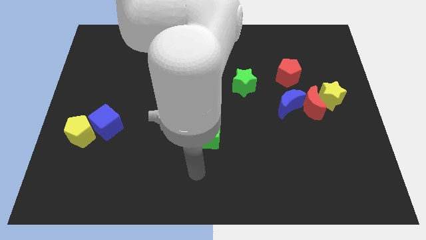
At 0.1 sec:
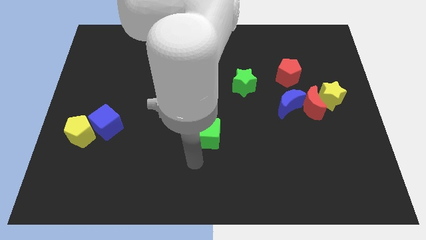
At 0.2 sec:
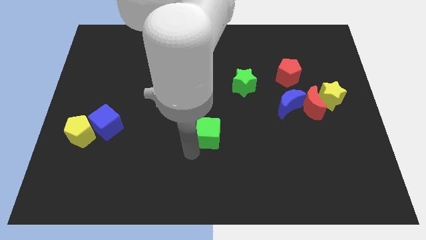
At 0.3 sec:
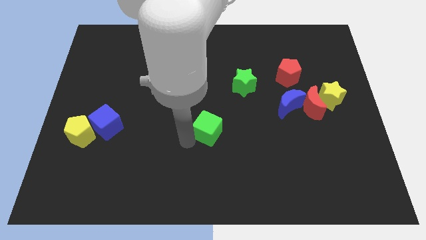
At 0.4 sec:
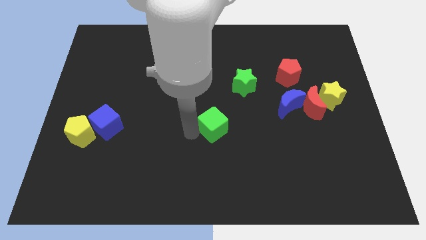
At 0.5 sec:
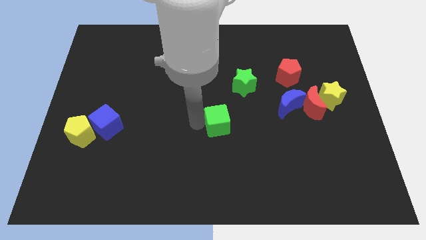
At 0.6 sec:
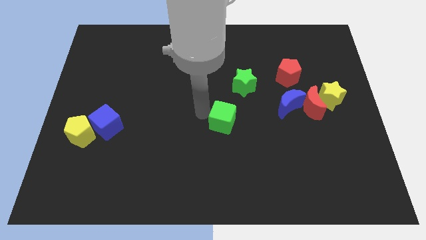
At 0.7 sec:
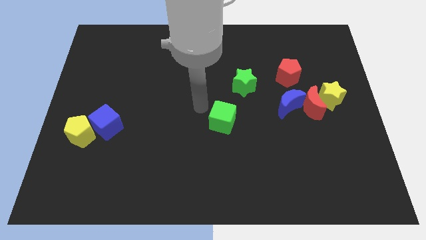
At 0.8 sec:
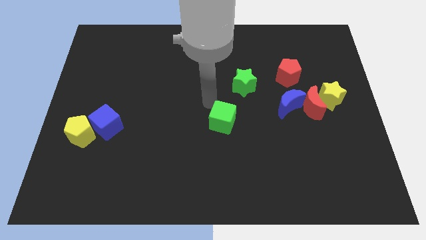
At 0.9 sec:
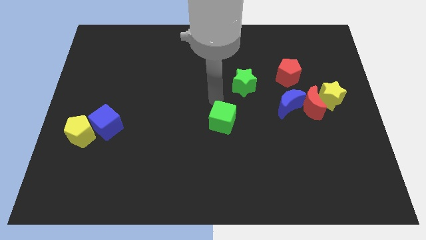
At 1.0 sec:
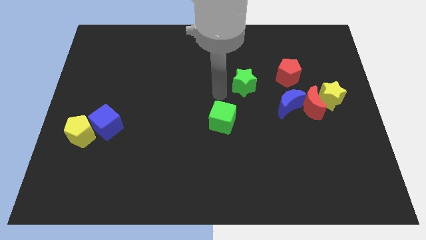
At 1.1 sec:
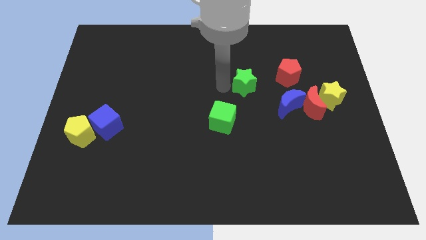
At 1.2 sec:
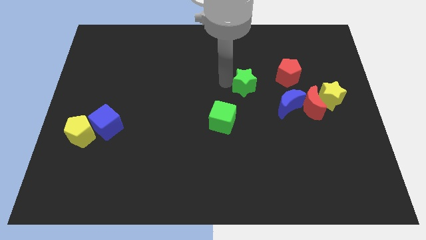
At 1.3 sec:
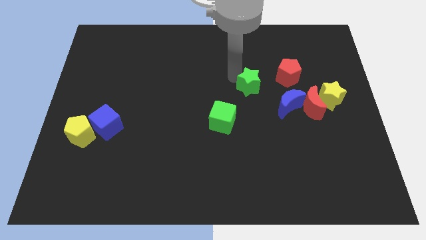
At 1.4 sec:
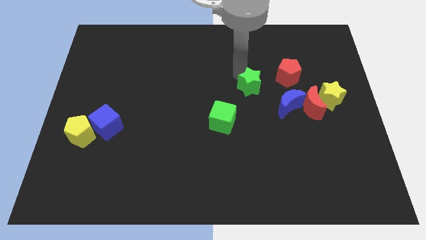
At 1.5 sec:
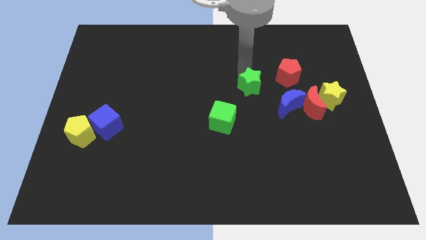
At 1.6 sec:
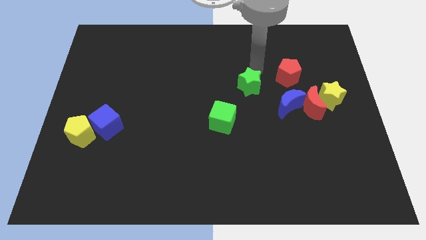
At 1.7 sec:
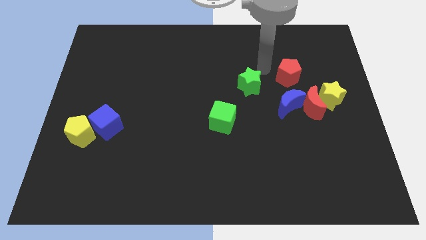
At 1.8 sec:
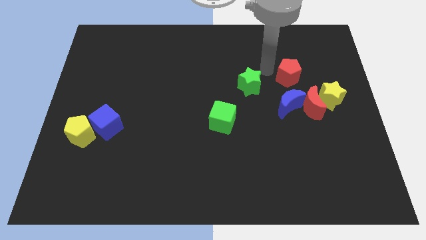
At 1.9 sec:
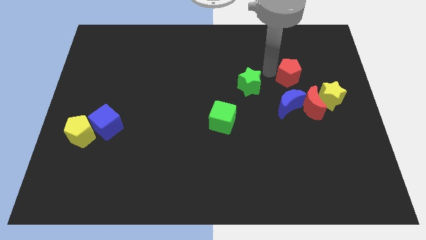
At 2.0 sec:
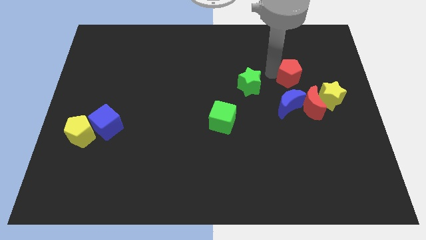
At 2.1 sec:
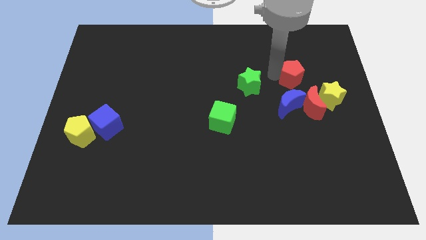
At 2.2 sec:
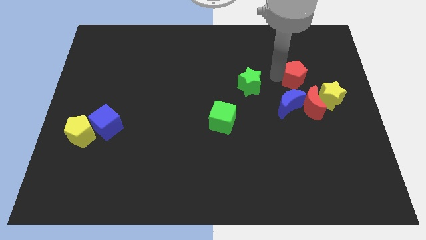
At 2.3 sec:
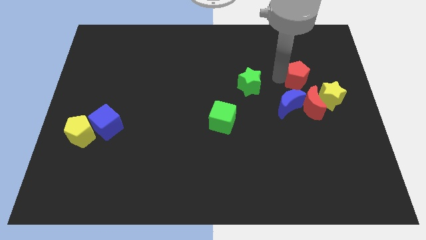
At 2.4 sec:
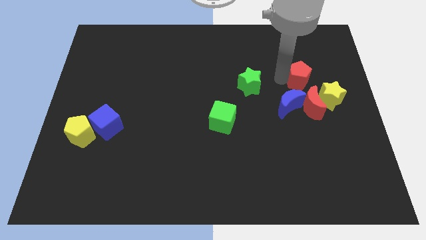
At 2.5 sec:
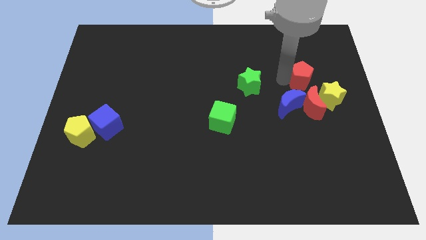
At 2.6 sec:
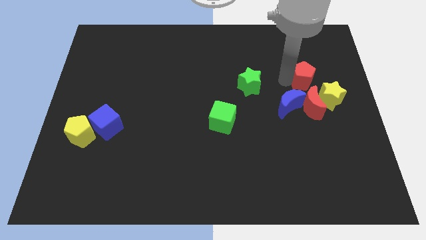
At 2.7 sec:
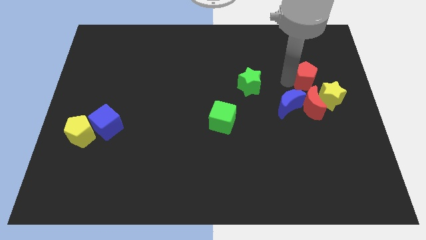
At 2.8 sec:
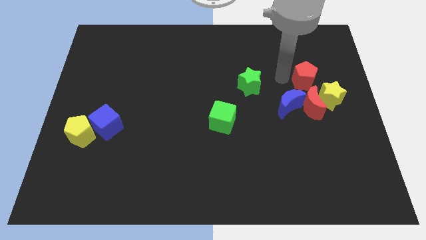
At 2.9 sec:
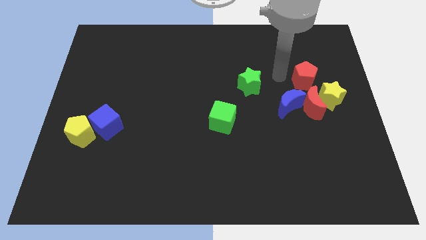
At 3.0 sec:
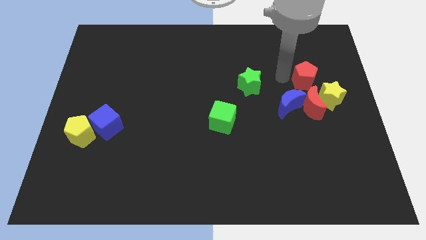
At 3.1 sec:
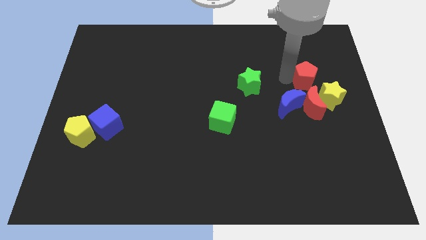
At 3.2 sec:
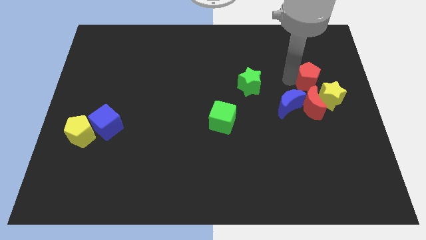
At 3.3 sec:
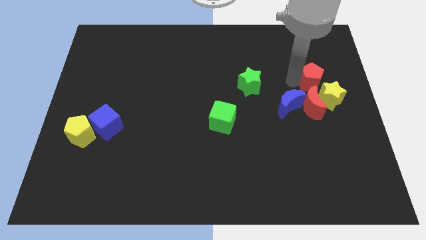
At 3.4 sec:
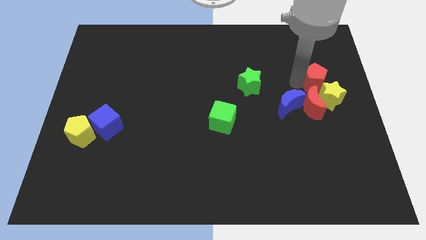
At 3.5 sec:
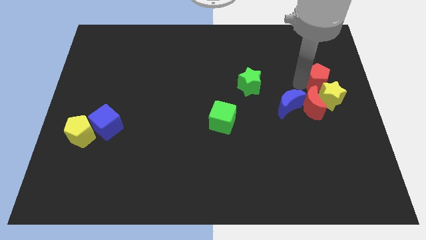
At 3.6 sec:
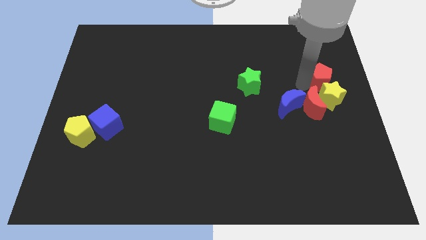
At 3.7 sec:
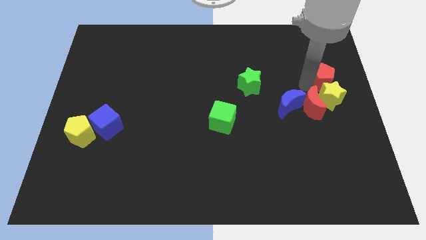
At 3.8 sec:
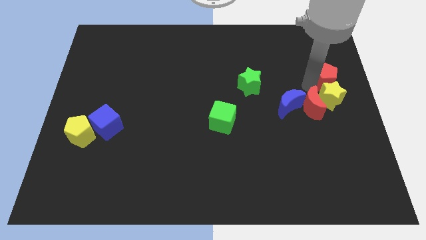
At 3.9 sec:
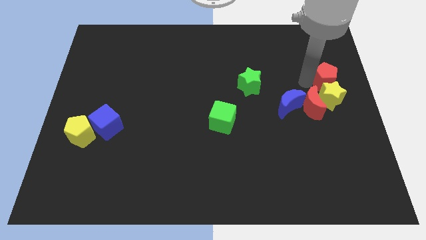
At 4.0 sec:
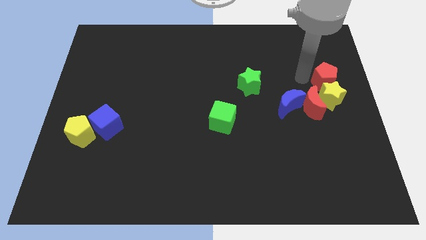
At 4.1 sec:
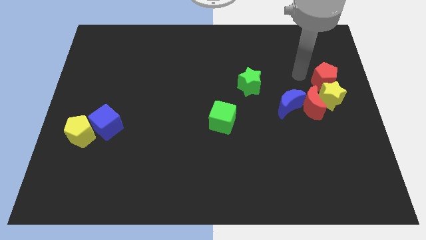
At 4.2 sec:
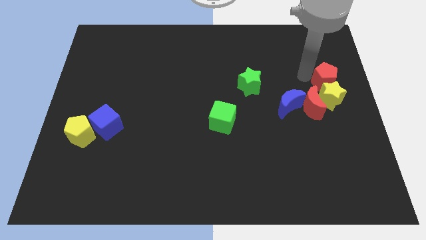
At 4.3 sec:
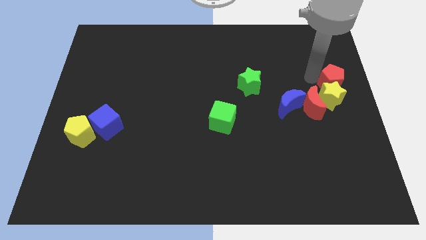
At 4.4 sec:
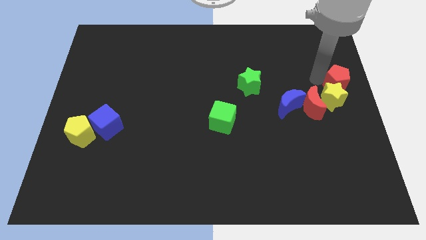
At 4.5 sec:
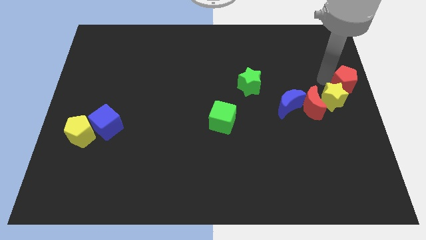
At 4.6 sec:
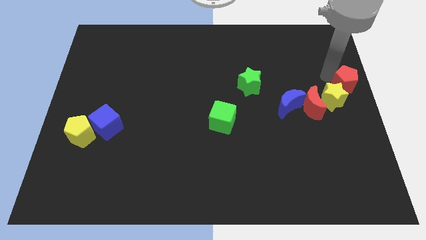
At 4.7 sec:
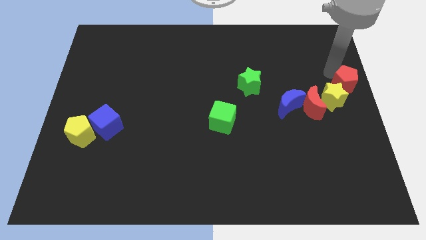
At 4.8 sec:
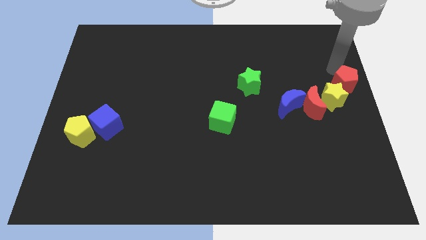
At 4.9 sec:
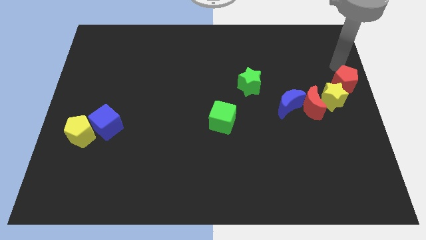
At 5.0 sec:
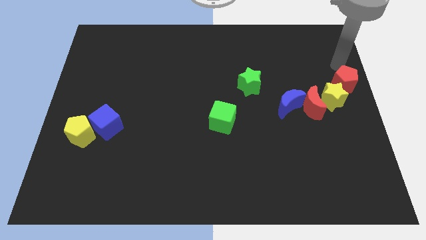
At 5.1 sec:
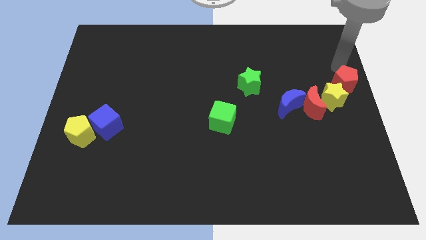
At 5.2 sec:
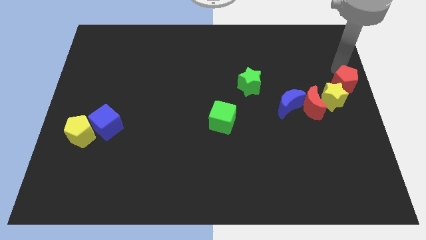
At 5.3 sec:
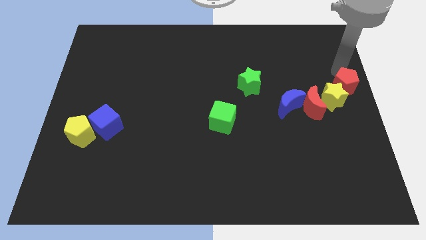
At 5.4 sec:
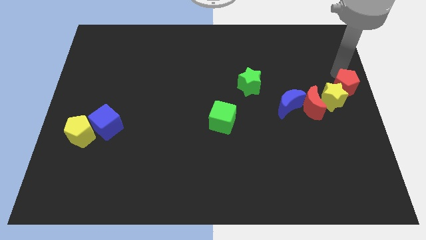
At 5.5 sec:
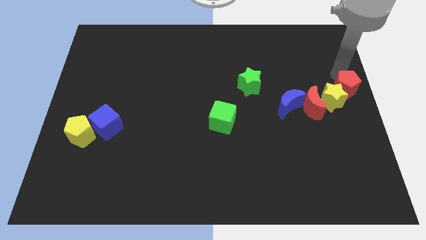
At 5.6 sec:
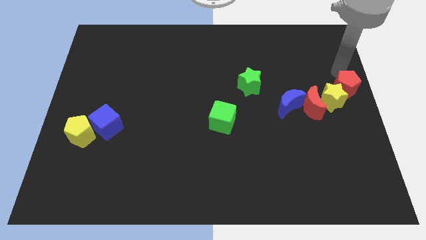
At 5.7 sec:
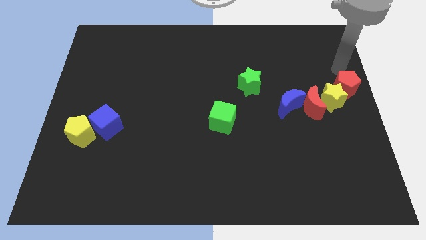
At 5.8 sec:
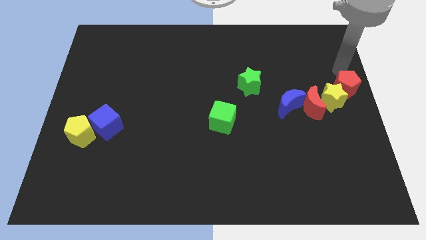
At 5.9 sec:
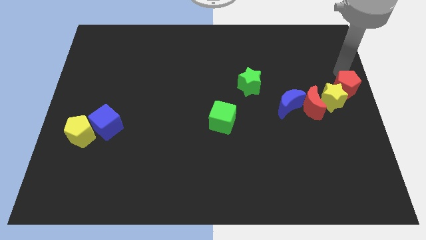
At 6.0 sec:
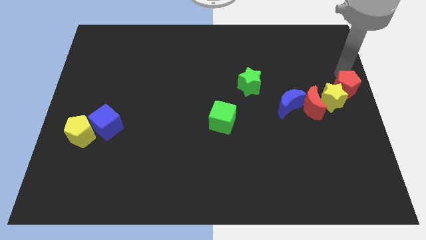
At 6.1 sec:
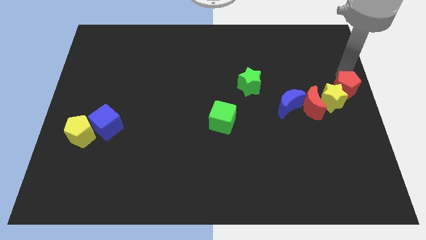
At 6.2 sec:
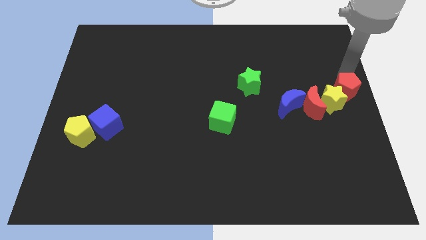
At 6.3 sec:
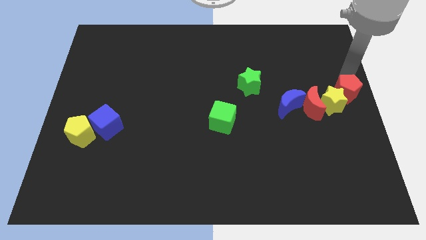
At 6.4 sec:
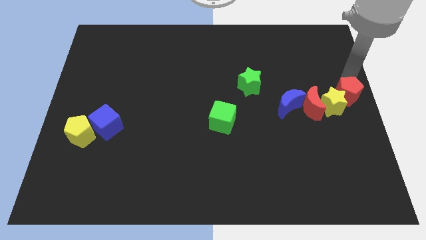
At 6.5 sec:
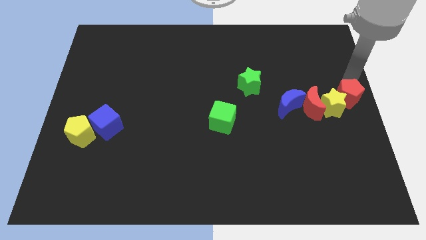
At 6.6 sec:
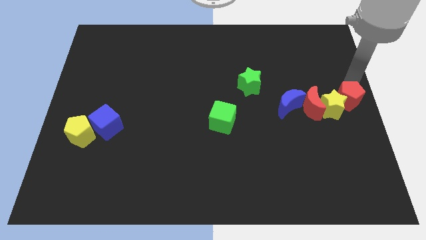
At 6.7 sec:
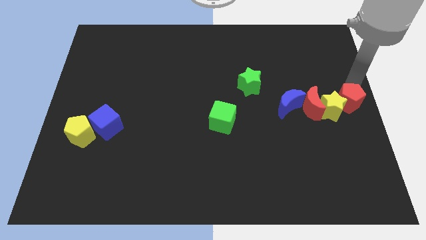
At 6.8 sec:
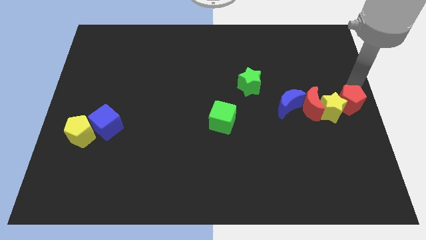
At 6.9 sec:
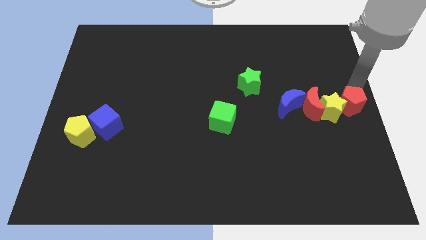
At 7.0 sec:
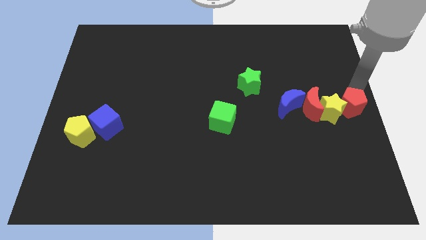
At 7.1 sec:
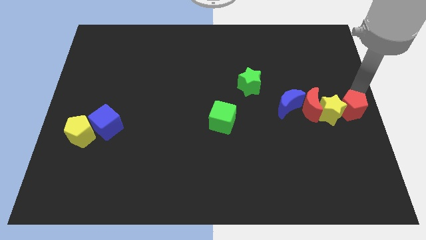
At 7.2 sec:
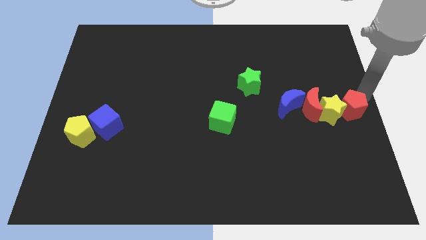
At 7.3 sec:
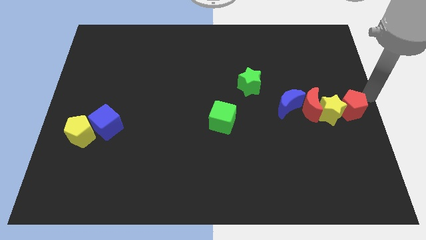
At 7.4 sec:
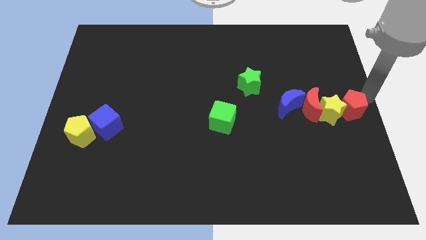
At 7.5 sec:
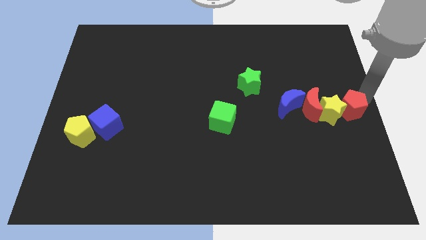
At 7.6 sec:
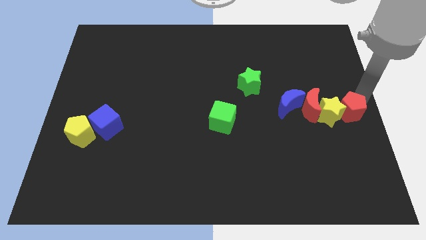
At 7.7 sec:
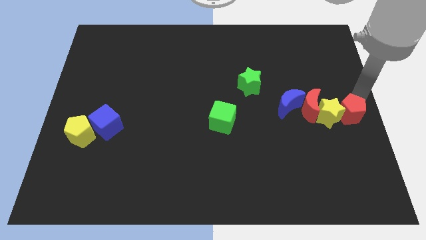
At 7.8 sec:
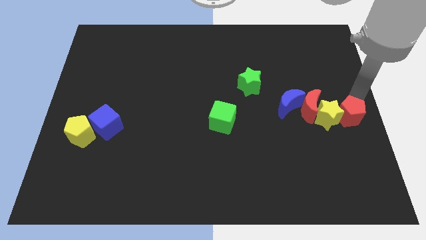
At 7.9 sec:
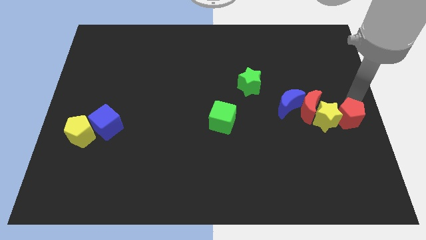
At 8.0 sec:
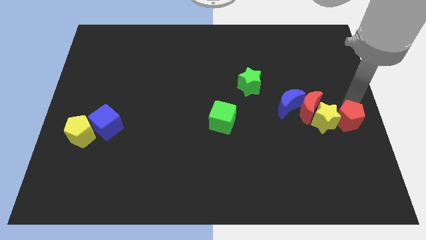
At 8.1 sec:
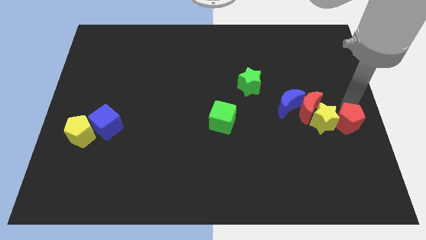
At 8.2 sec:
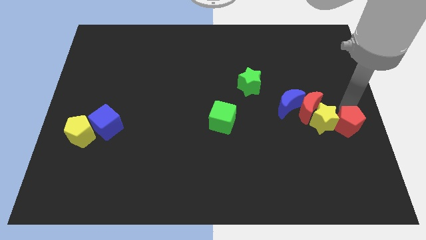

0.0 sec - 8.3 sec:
slightly slide the red pentagon downwards

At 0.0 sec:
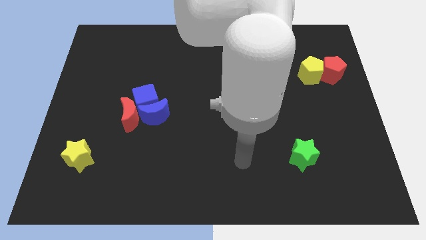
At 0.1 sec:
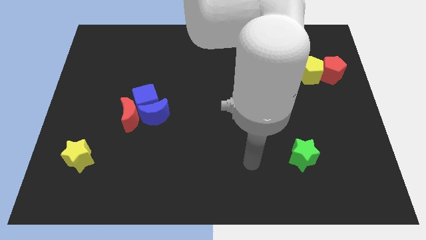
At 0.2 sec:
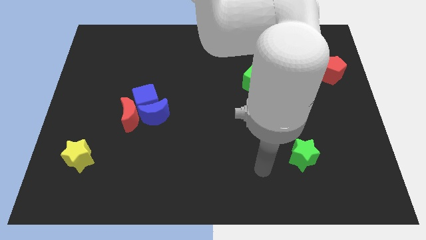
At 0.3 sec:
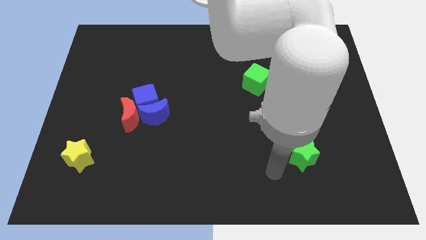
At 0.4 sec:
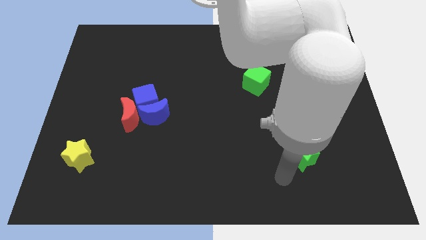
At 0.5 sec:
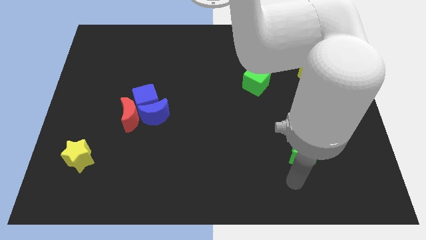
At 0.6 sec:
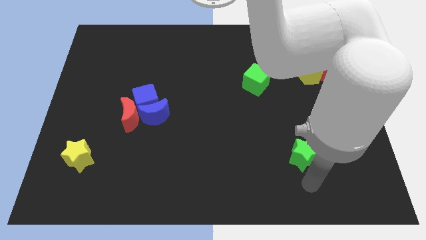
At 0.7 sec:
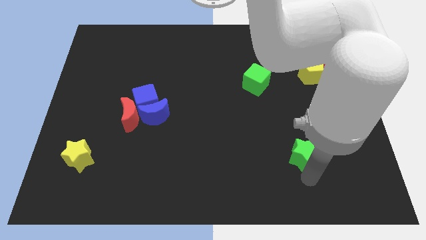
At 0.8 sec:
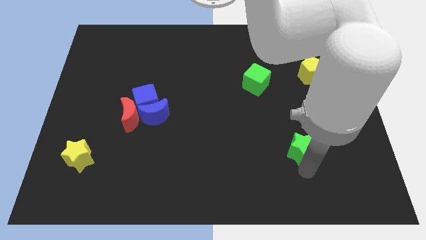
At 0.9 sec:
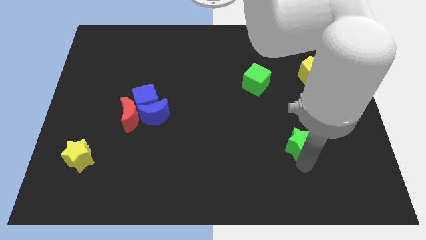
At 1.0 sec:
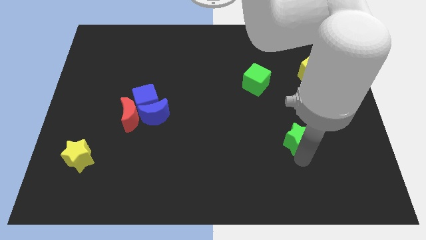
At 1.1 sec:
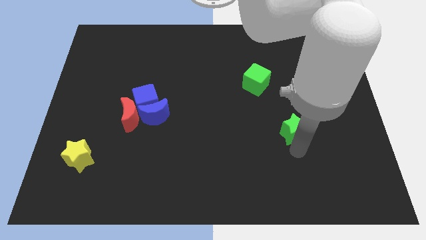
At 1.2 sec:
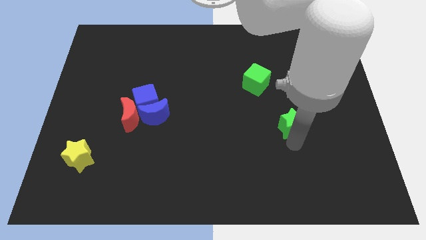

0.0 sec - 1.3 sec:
move the green star a bit up
